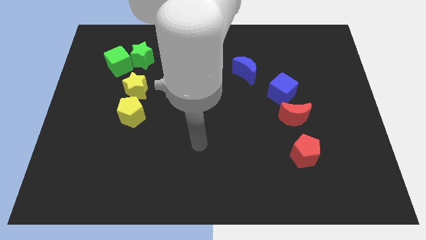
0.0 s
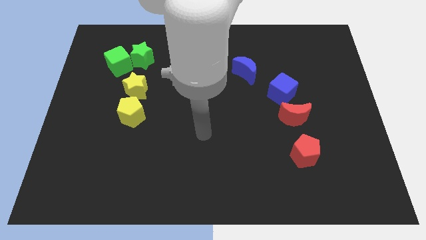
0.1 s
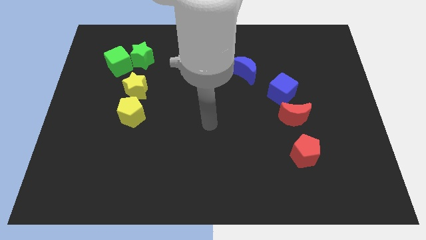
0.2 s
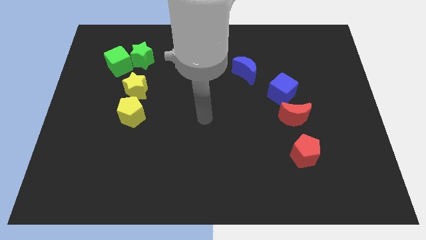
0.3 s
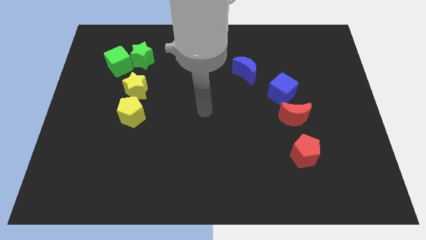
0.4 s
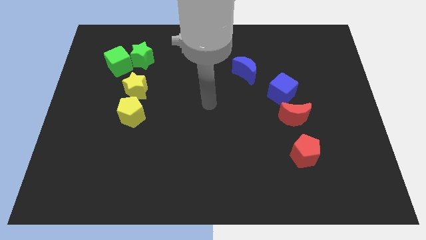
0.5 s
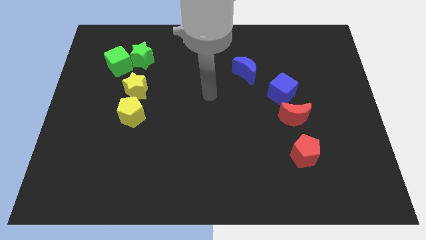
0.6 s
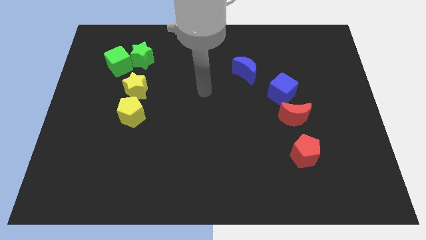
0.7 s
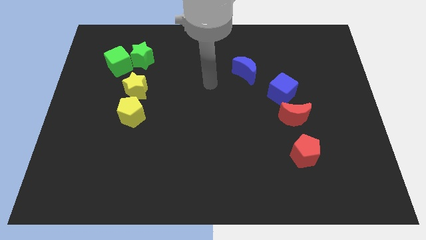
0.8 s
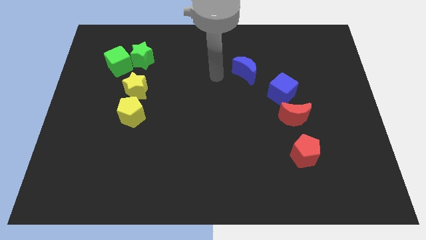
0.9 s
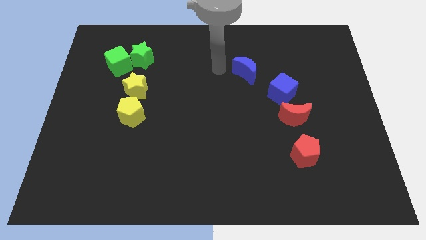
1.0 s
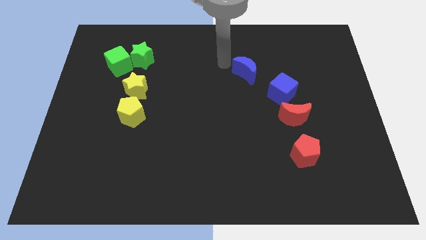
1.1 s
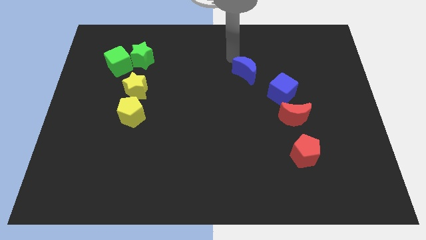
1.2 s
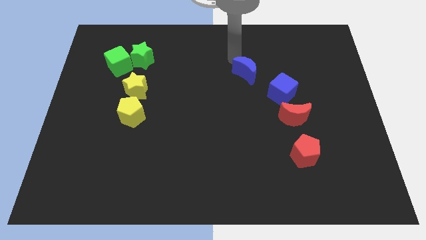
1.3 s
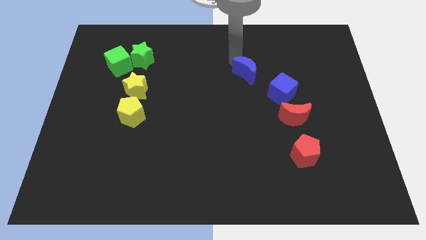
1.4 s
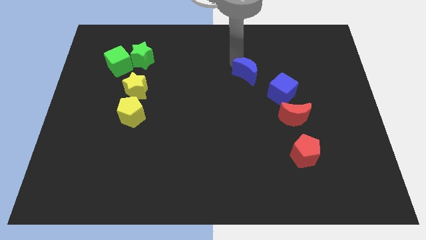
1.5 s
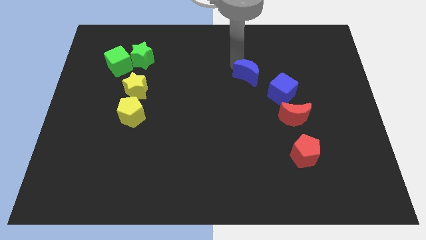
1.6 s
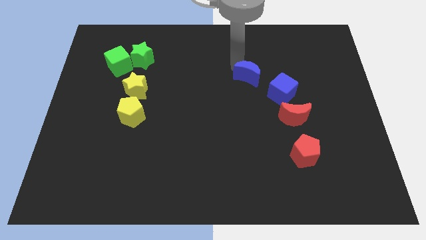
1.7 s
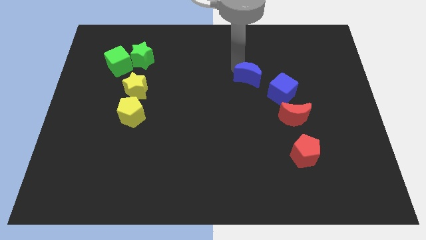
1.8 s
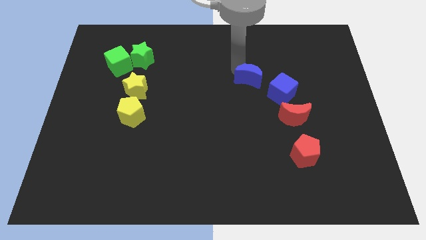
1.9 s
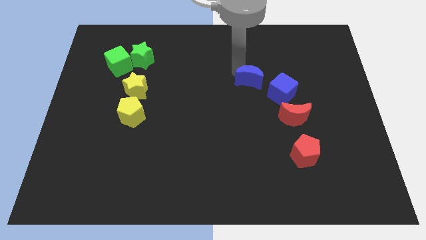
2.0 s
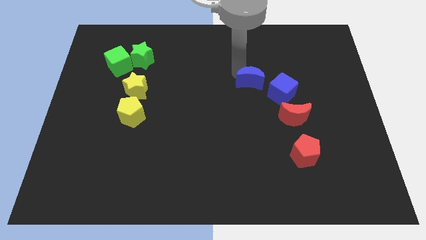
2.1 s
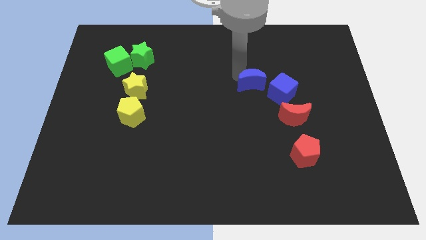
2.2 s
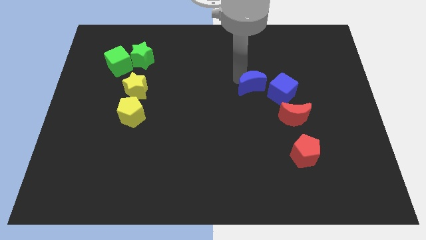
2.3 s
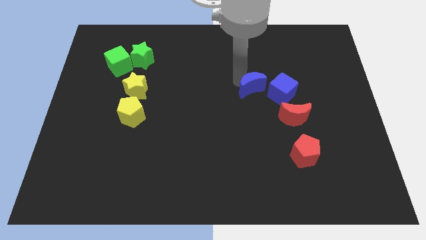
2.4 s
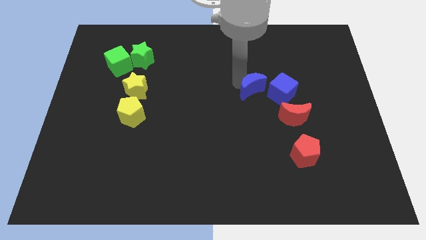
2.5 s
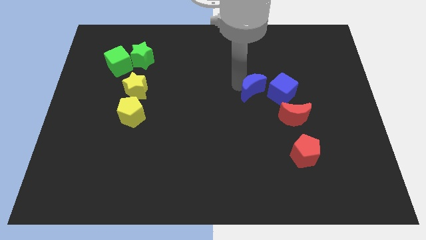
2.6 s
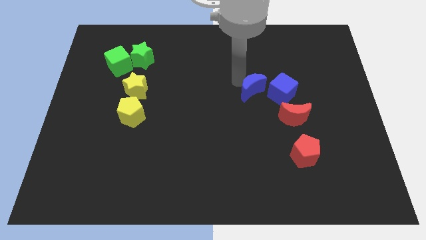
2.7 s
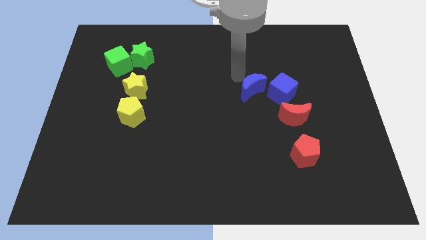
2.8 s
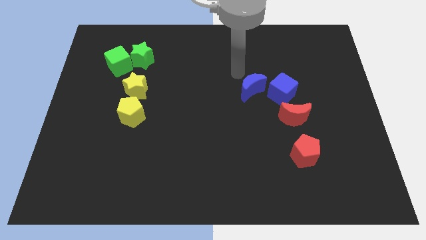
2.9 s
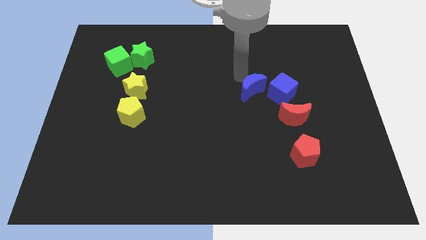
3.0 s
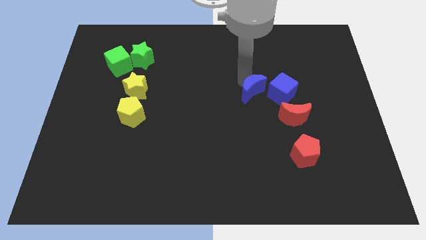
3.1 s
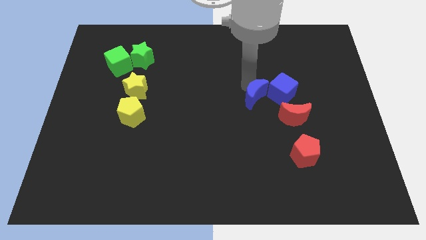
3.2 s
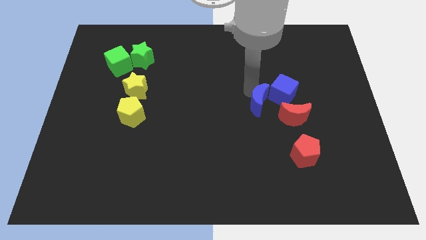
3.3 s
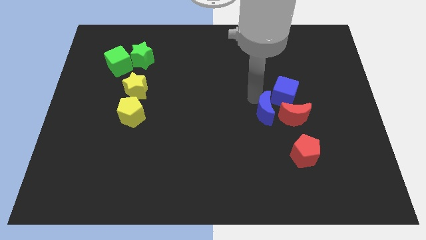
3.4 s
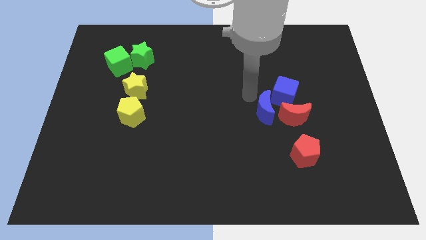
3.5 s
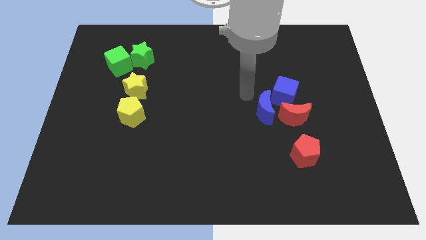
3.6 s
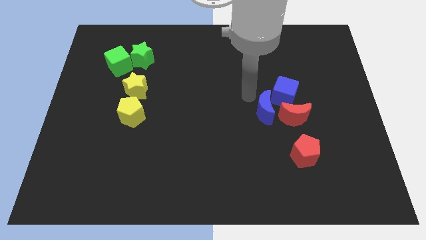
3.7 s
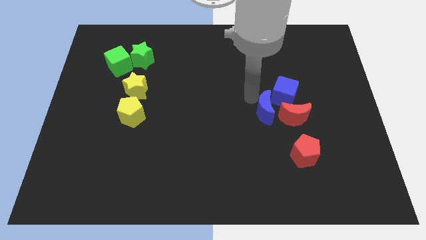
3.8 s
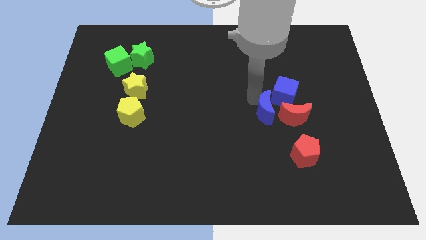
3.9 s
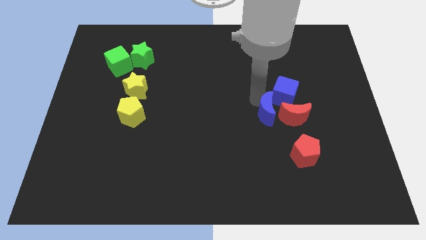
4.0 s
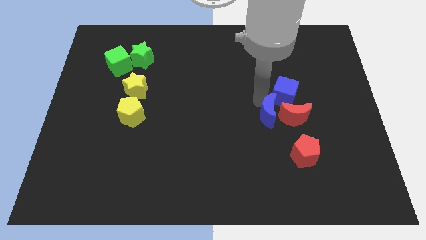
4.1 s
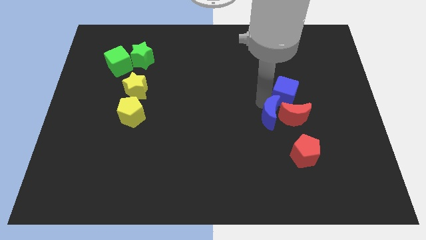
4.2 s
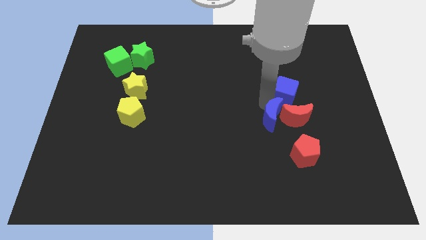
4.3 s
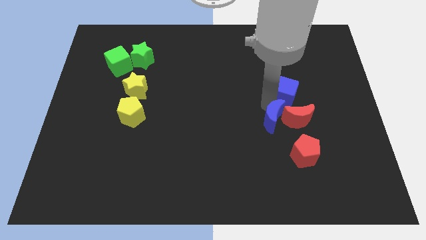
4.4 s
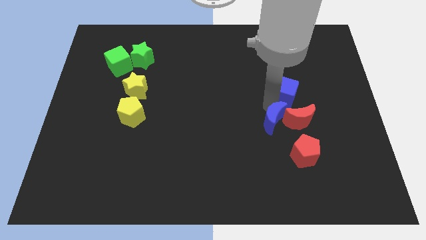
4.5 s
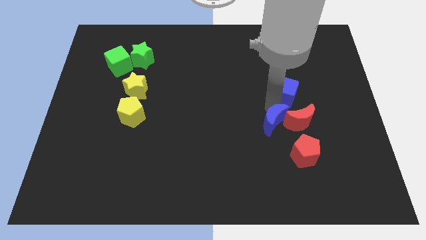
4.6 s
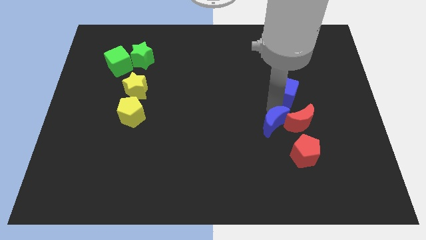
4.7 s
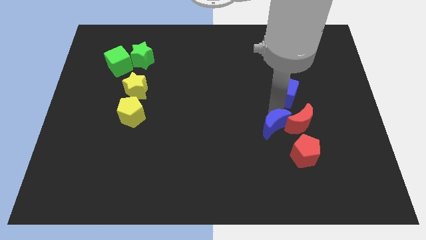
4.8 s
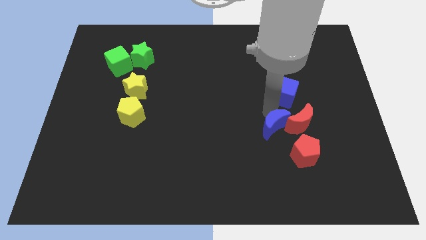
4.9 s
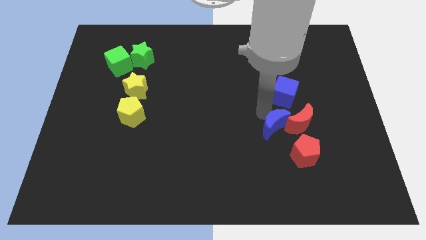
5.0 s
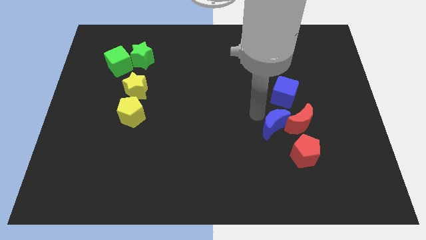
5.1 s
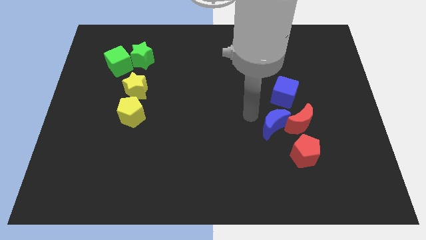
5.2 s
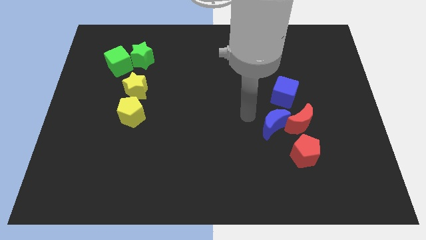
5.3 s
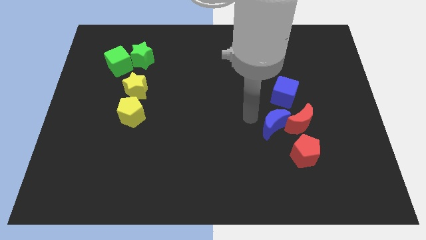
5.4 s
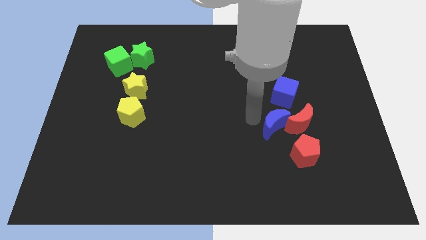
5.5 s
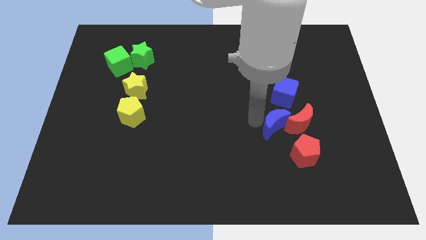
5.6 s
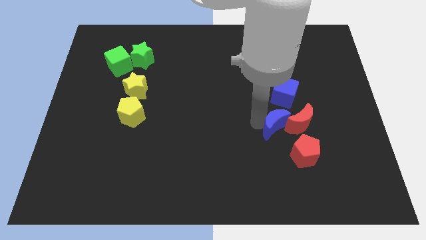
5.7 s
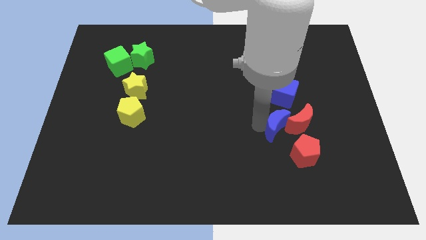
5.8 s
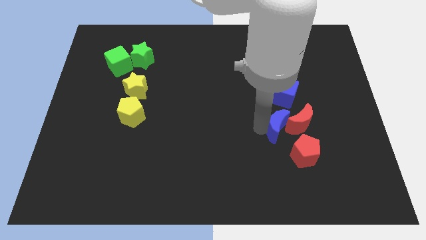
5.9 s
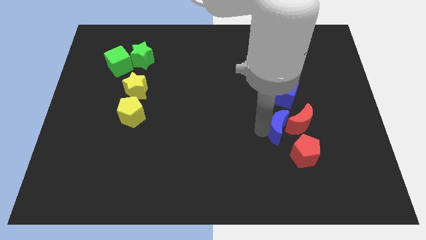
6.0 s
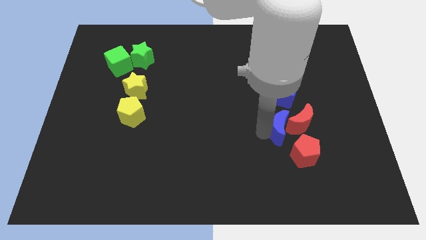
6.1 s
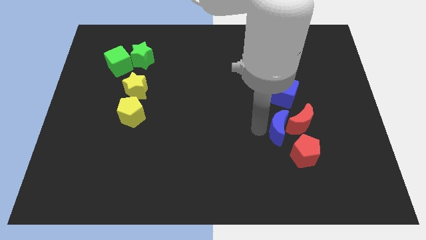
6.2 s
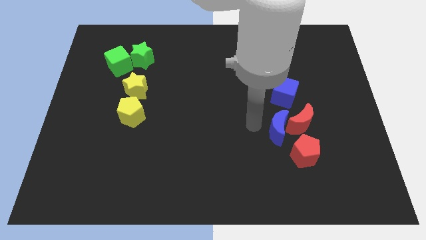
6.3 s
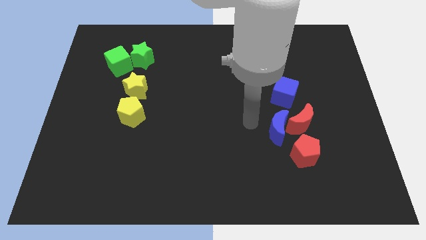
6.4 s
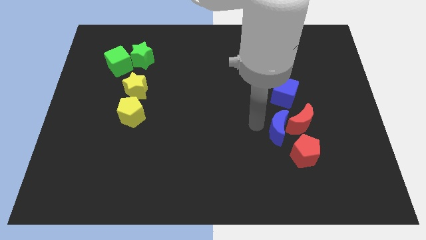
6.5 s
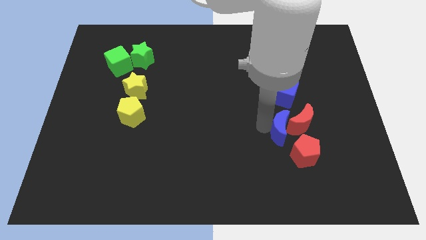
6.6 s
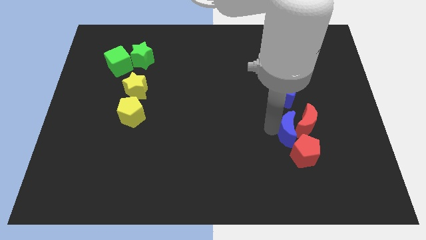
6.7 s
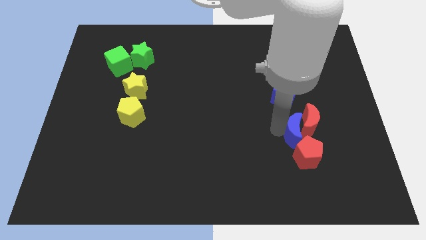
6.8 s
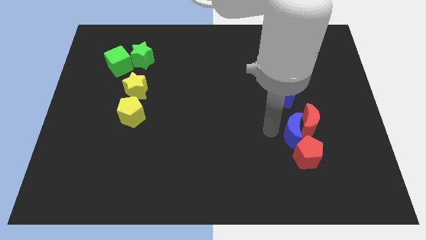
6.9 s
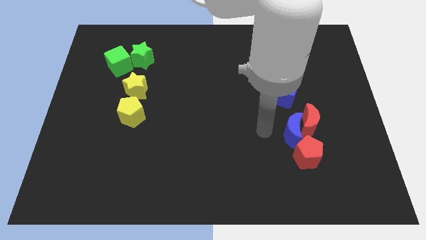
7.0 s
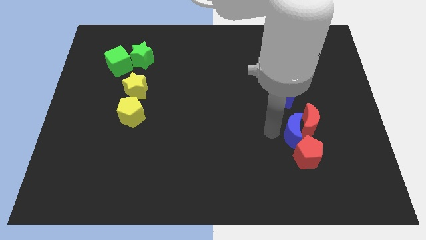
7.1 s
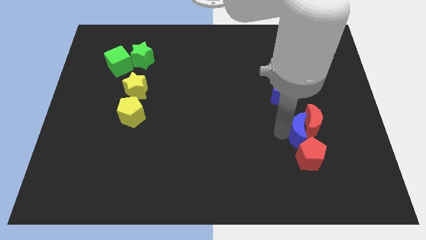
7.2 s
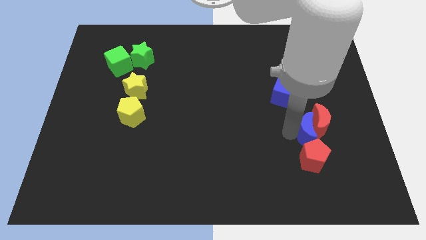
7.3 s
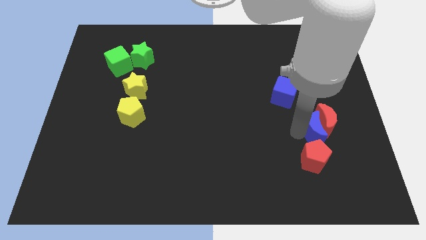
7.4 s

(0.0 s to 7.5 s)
put the blue moon to the top right side of the red pentagon
